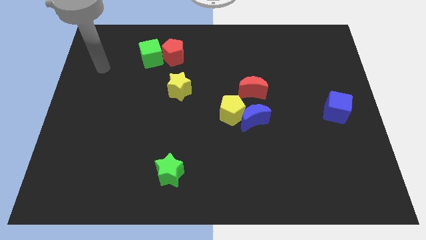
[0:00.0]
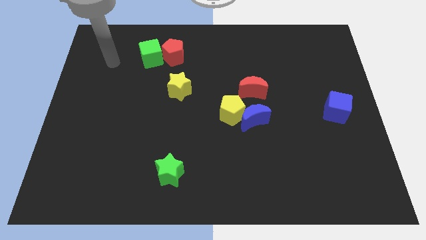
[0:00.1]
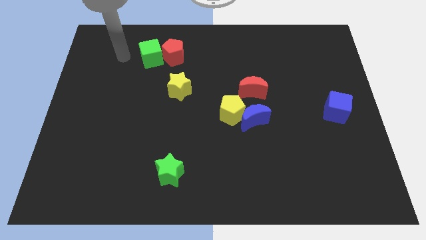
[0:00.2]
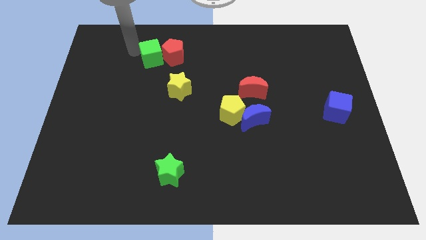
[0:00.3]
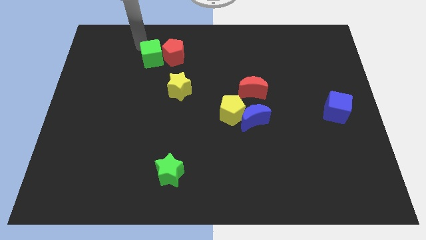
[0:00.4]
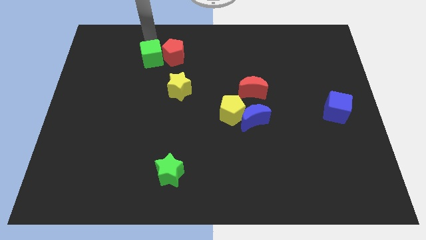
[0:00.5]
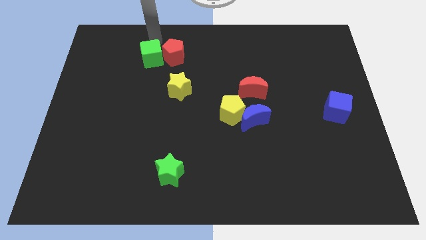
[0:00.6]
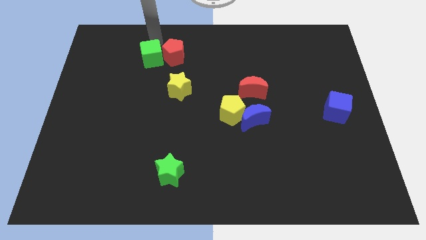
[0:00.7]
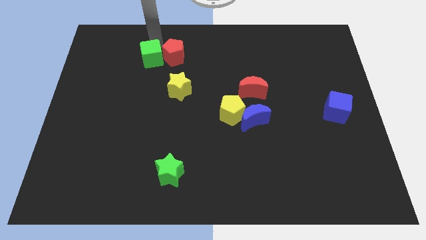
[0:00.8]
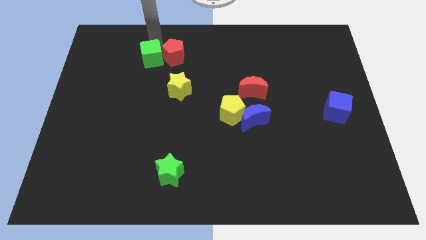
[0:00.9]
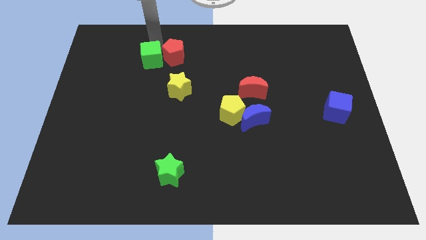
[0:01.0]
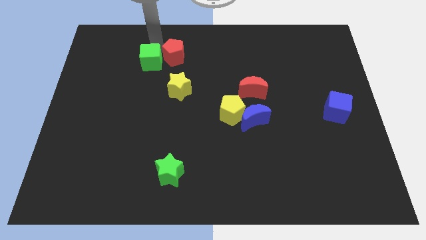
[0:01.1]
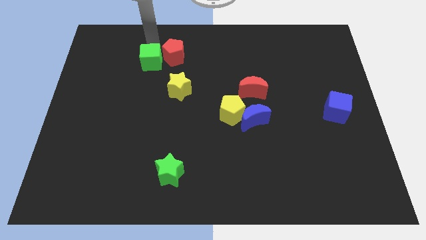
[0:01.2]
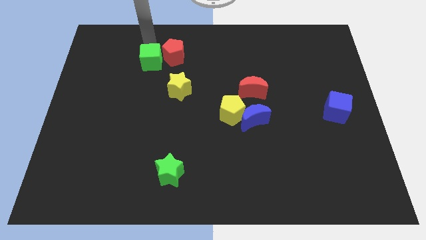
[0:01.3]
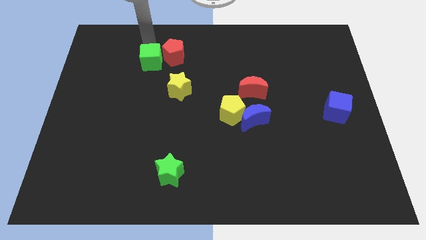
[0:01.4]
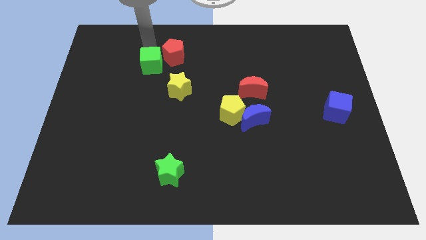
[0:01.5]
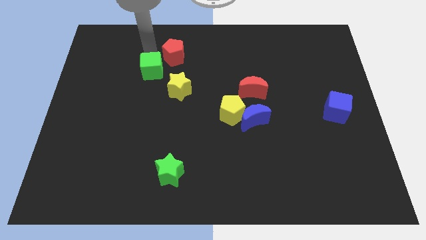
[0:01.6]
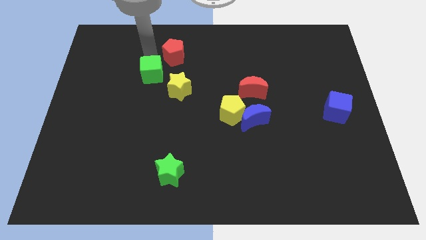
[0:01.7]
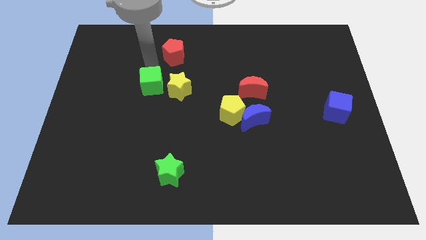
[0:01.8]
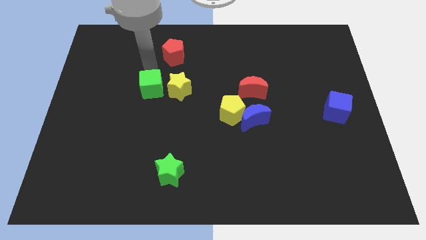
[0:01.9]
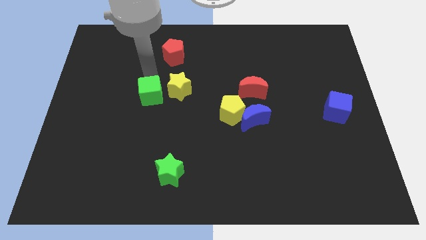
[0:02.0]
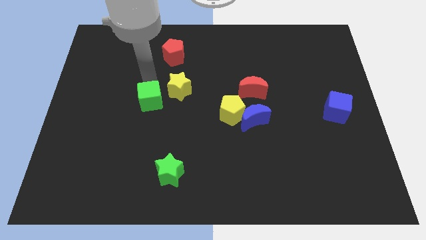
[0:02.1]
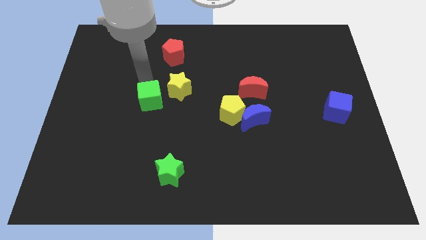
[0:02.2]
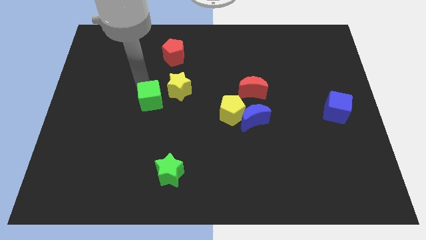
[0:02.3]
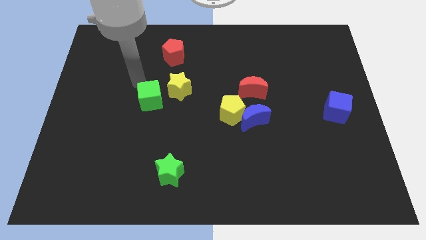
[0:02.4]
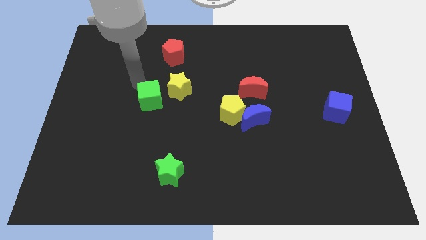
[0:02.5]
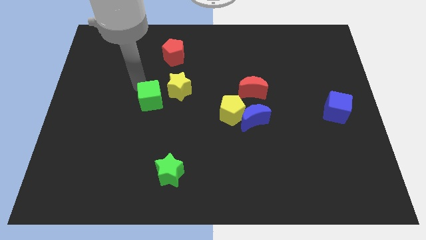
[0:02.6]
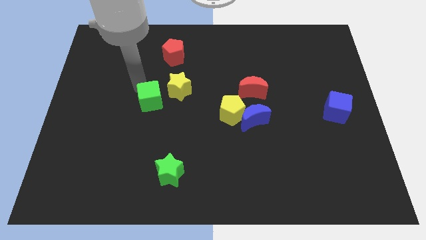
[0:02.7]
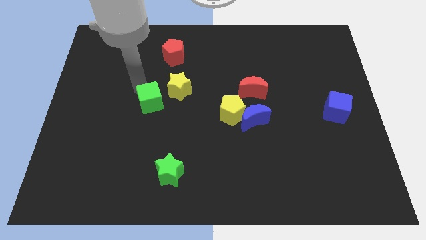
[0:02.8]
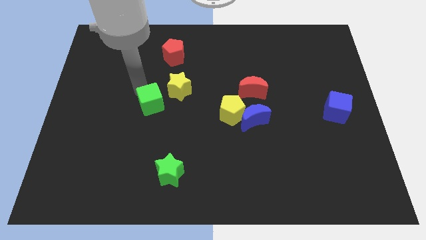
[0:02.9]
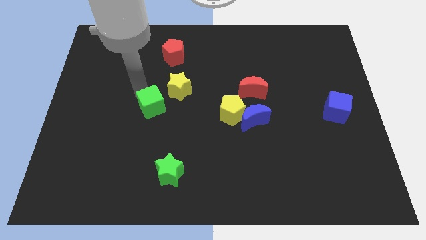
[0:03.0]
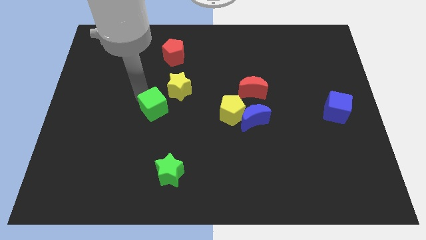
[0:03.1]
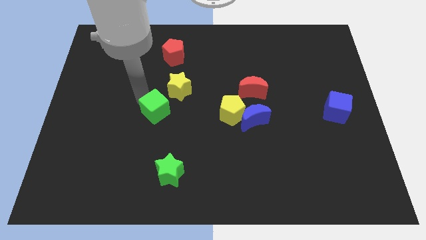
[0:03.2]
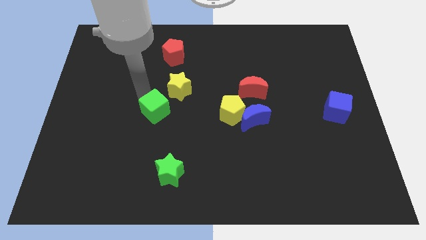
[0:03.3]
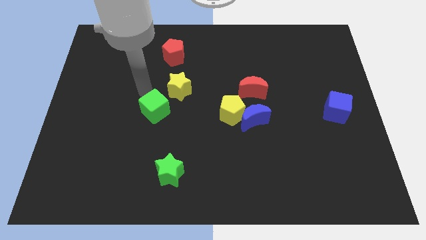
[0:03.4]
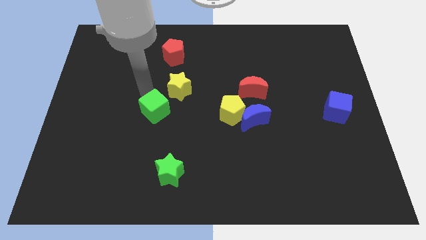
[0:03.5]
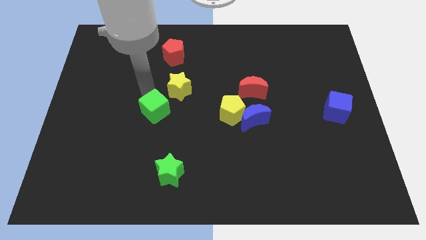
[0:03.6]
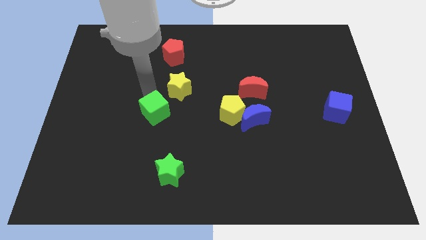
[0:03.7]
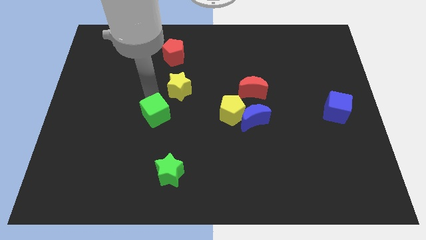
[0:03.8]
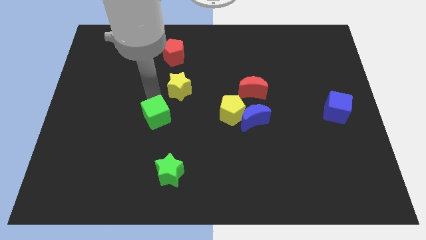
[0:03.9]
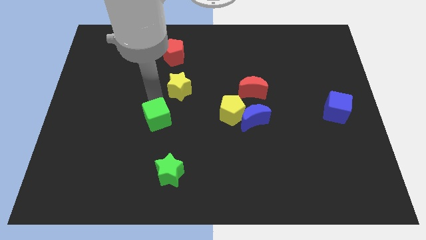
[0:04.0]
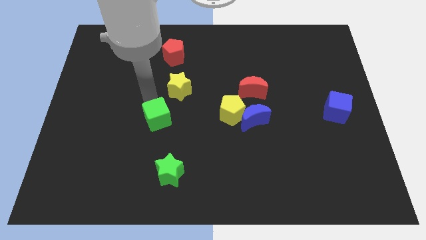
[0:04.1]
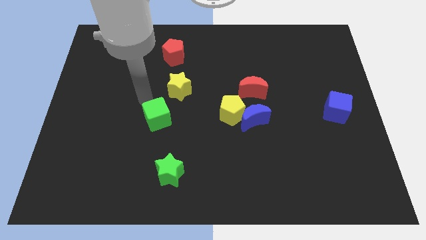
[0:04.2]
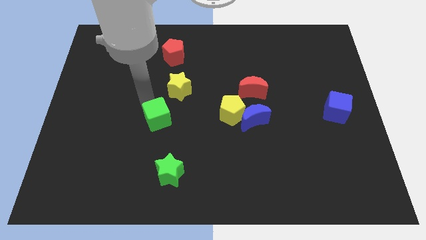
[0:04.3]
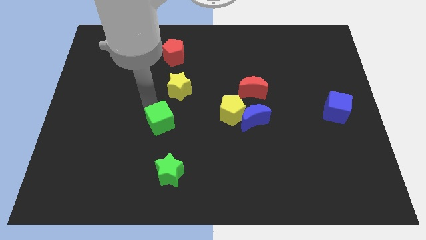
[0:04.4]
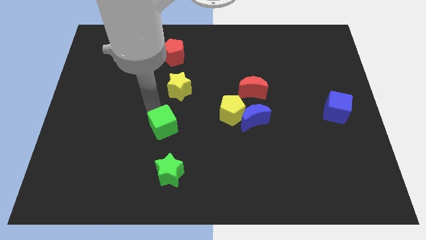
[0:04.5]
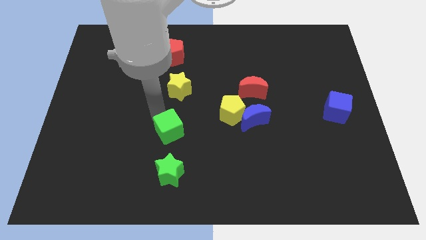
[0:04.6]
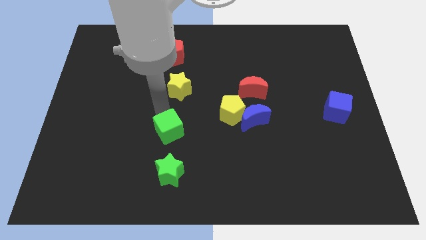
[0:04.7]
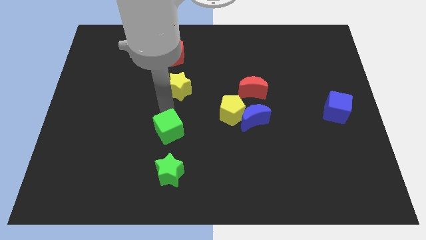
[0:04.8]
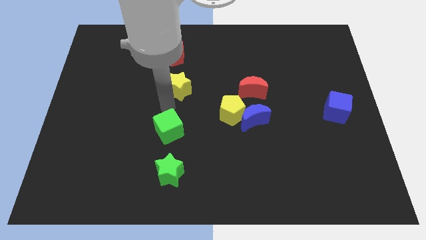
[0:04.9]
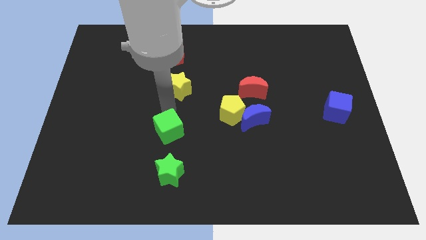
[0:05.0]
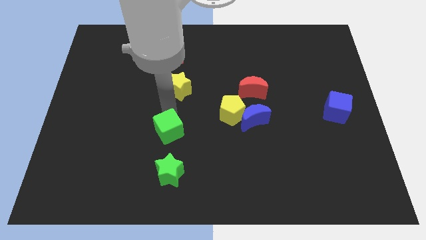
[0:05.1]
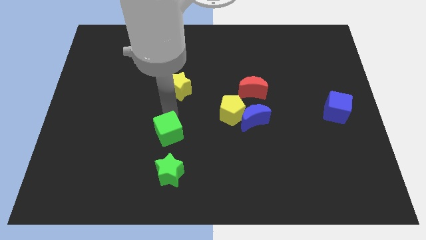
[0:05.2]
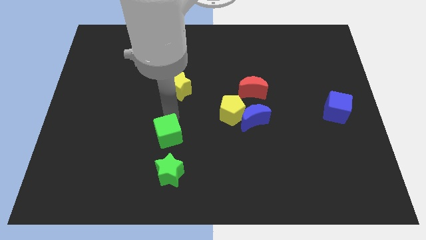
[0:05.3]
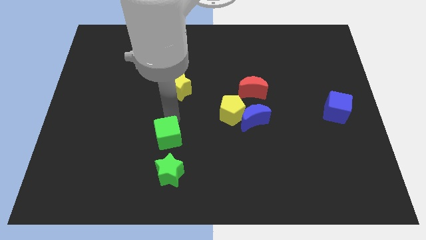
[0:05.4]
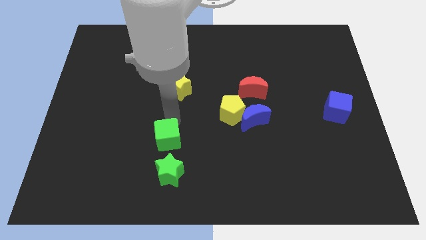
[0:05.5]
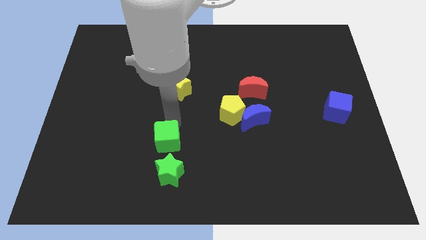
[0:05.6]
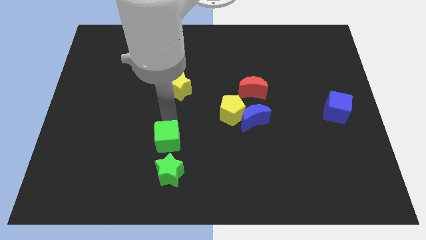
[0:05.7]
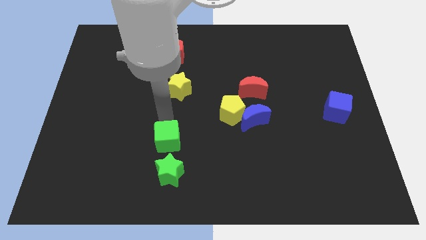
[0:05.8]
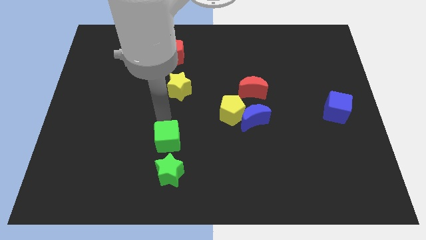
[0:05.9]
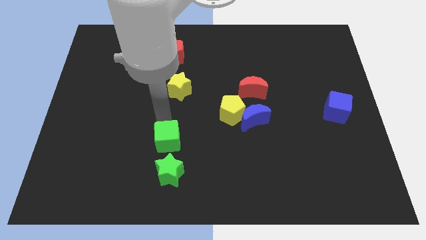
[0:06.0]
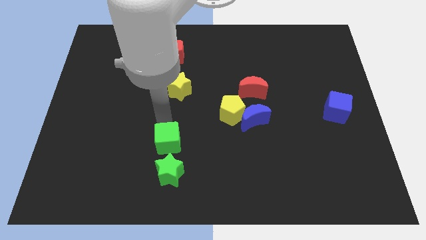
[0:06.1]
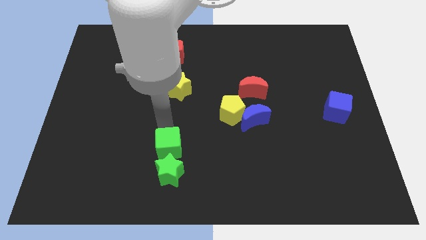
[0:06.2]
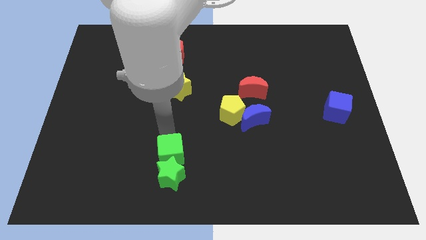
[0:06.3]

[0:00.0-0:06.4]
push the green cube next to the green star
